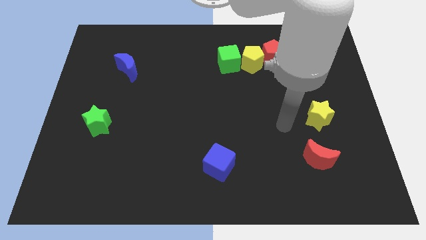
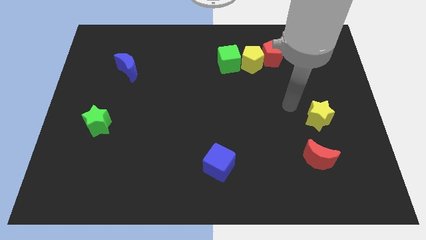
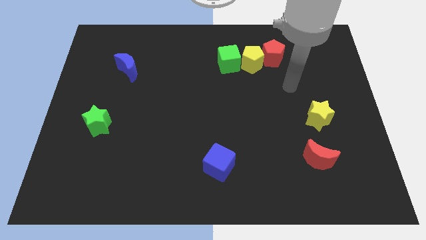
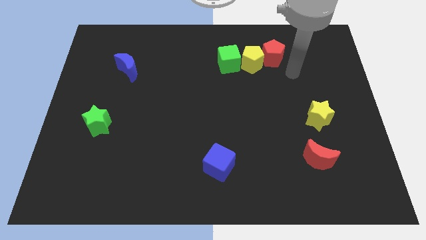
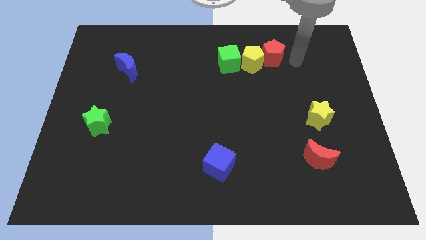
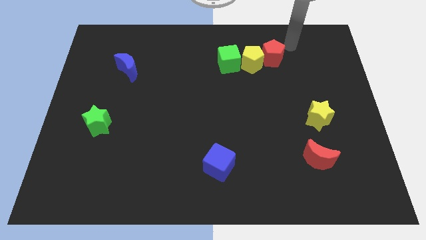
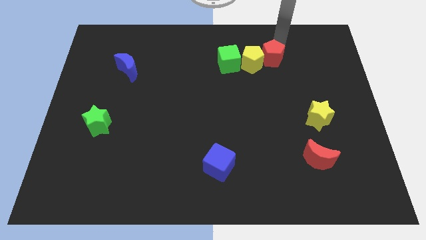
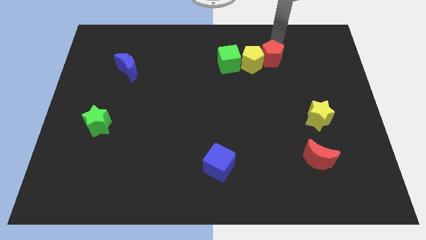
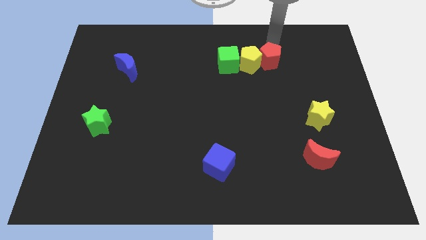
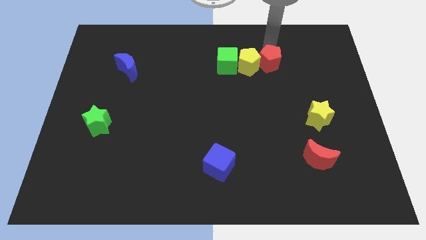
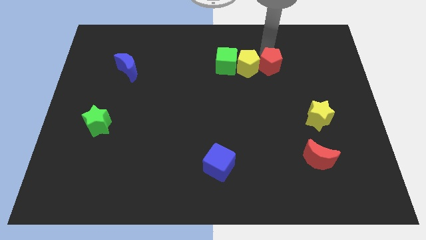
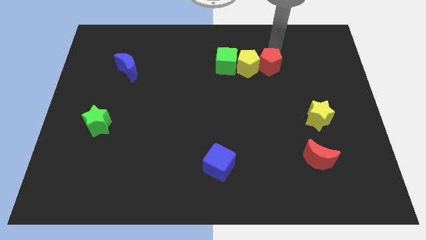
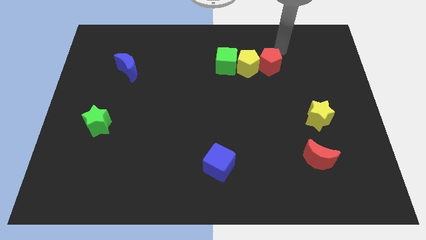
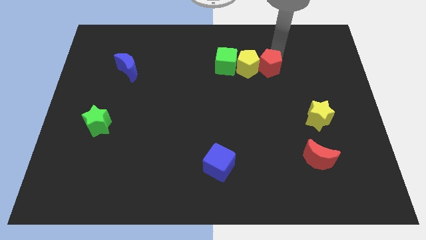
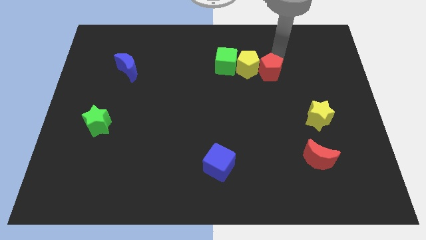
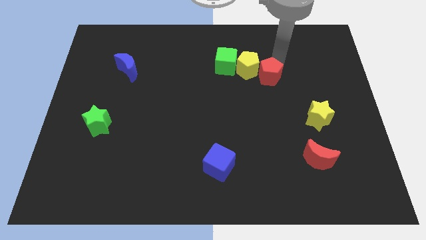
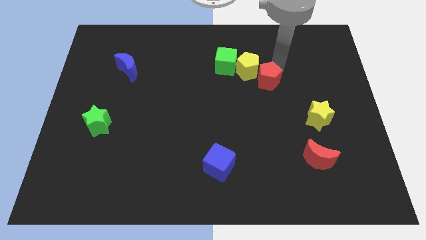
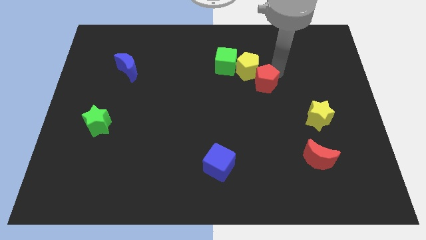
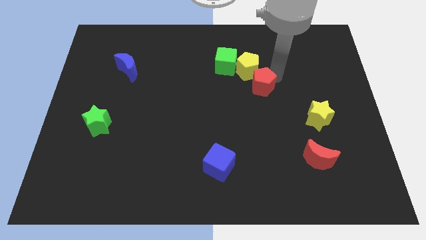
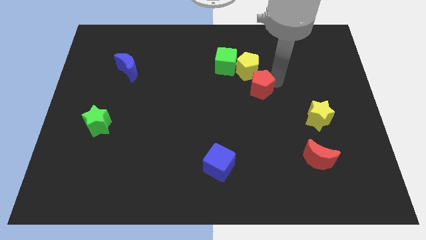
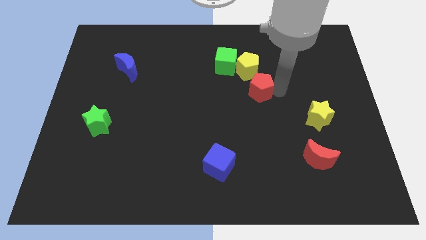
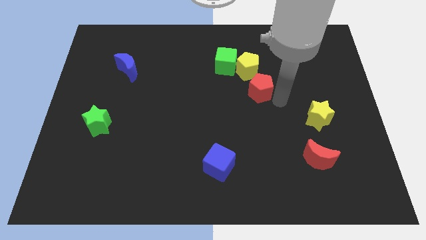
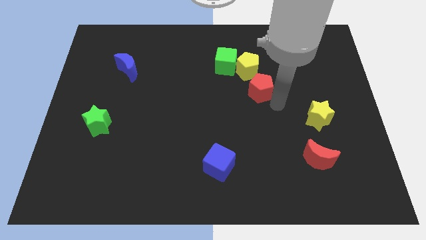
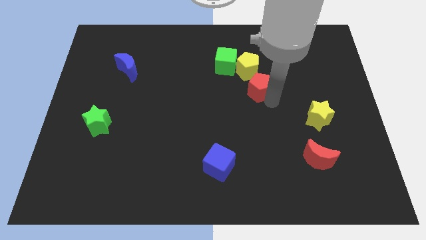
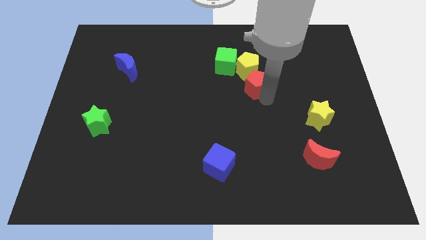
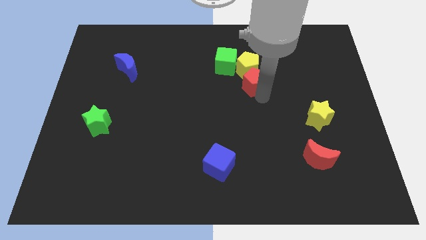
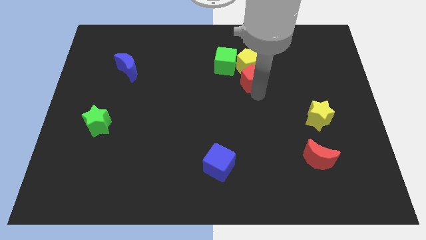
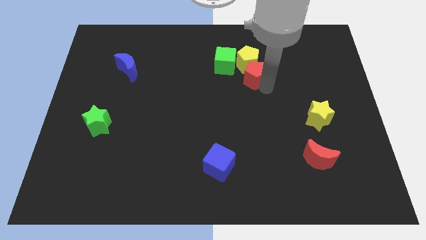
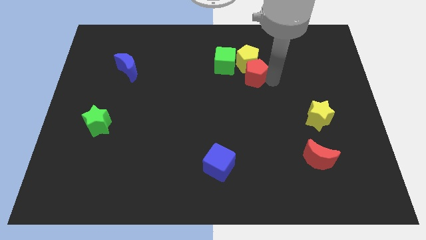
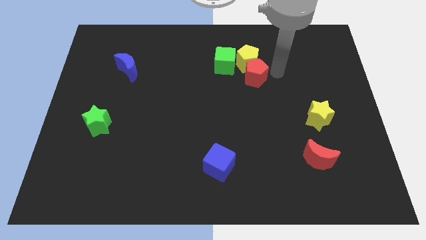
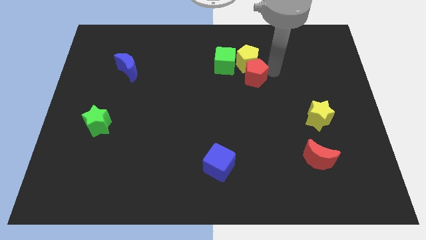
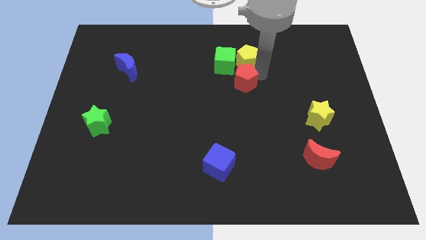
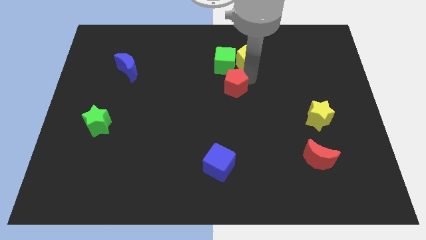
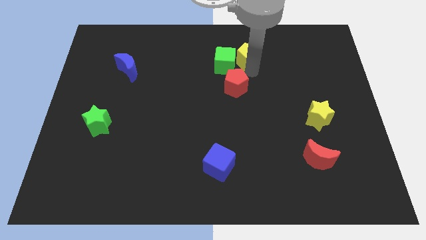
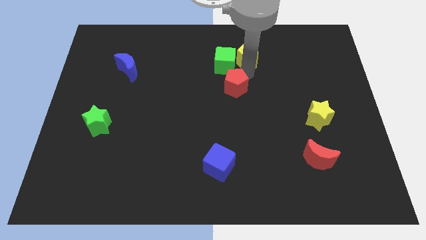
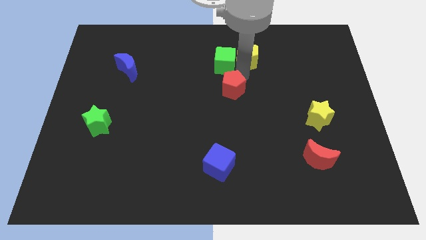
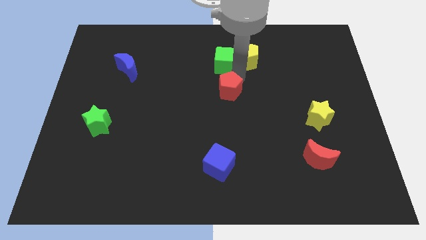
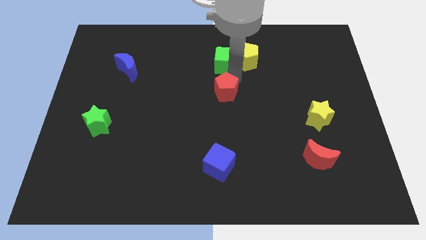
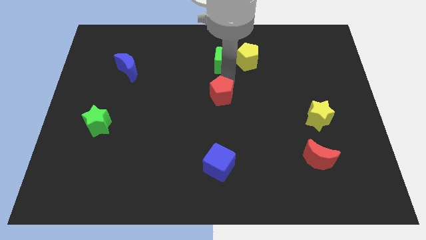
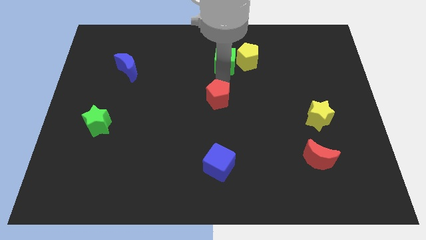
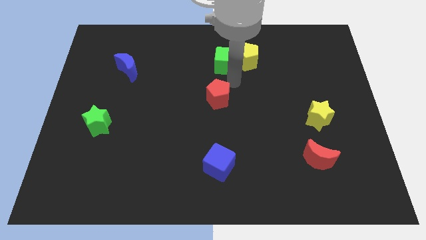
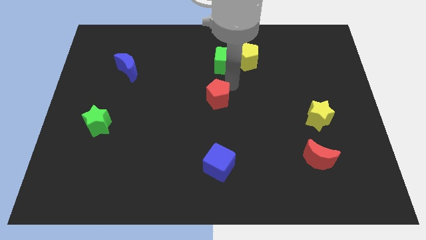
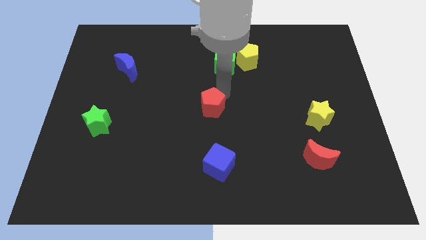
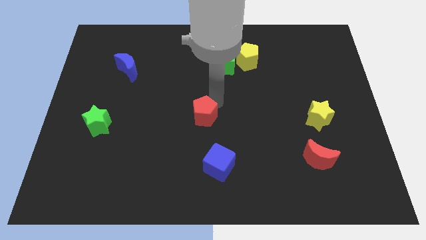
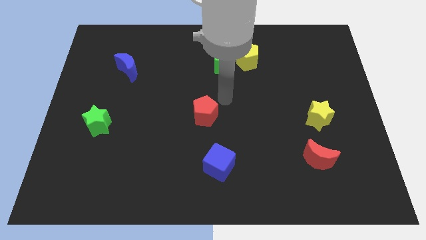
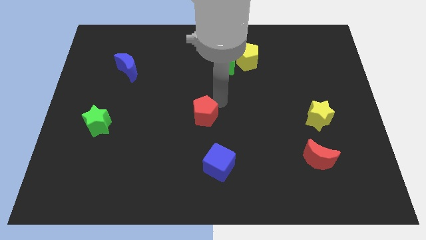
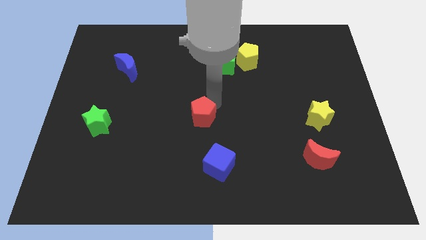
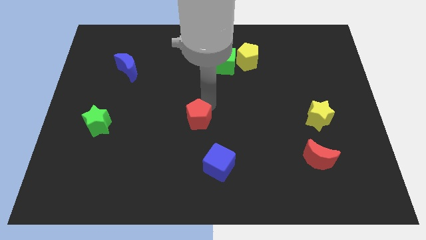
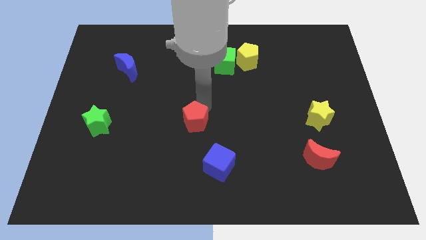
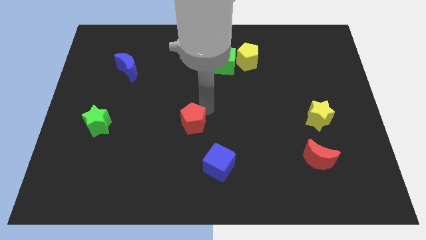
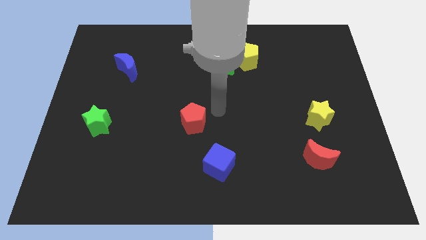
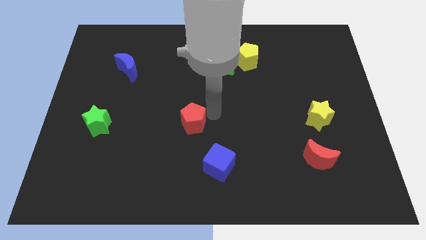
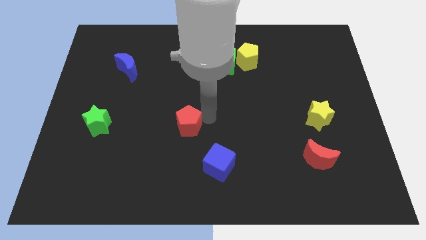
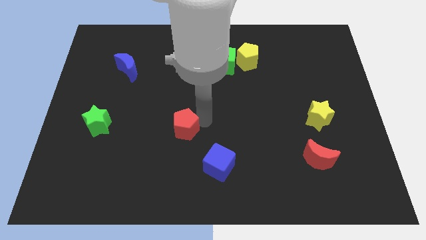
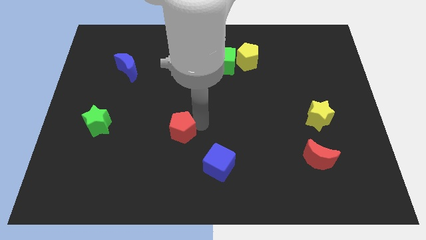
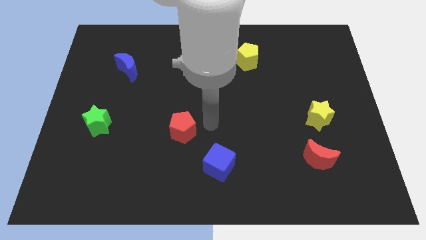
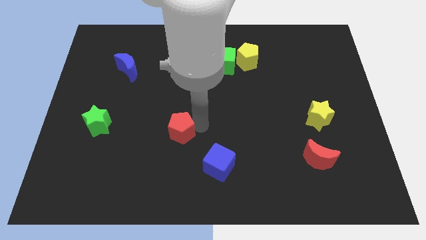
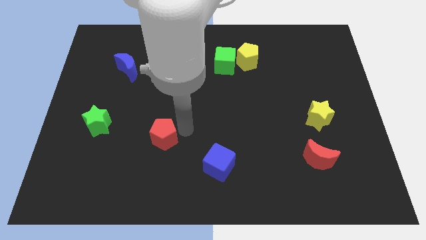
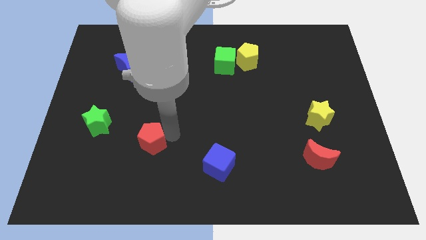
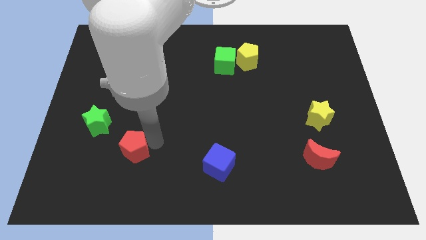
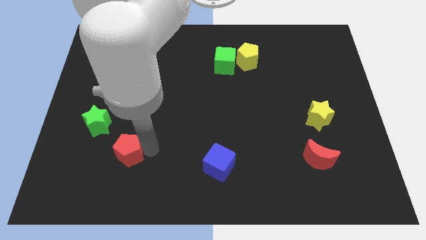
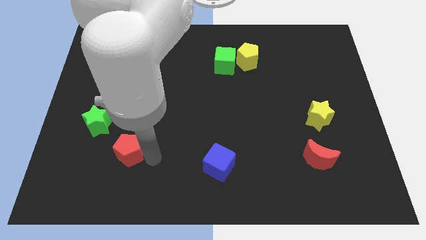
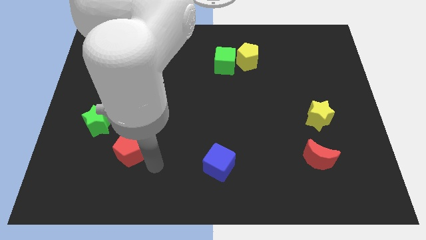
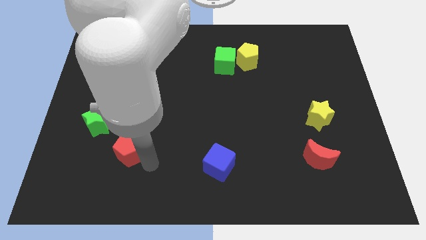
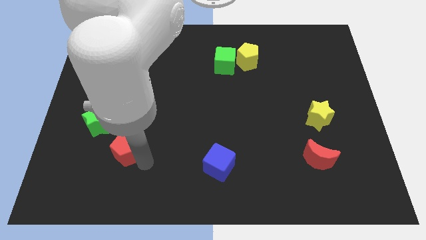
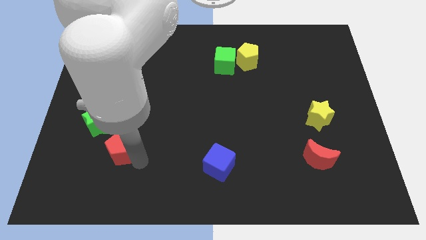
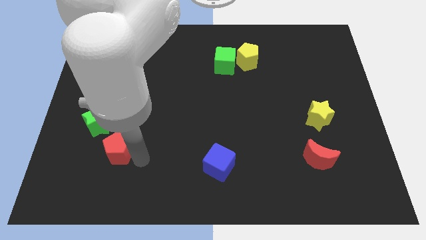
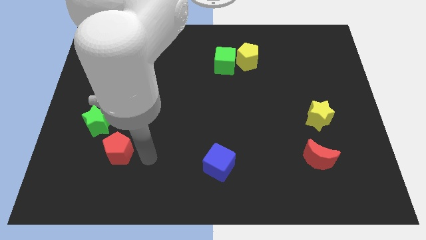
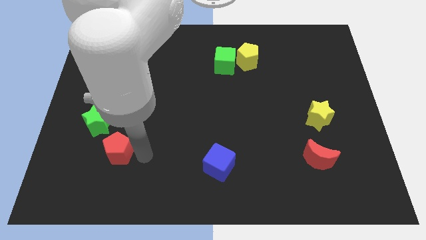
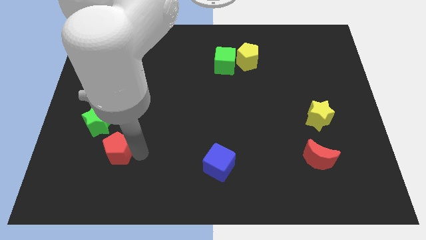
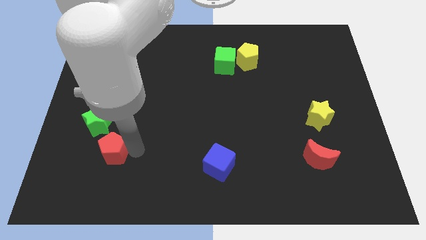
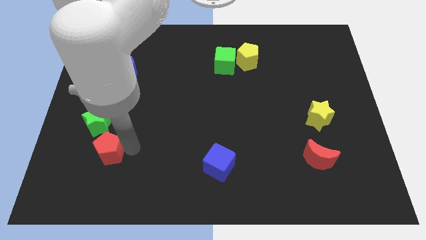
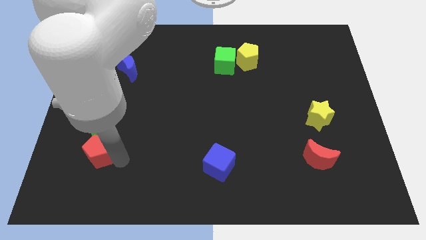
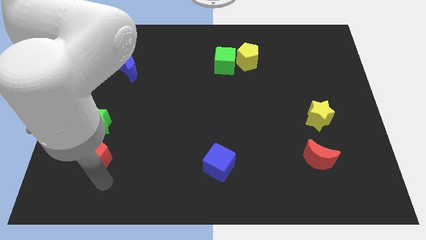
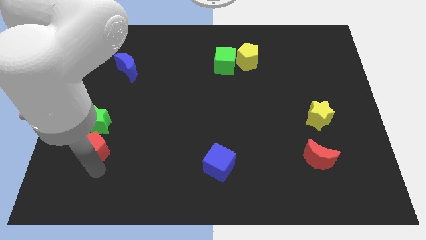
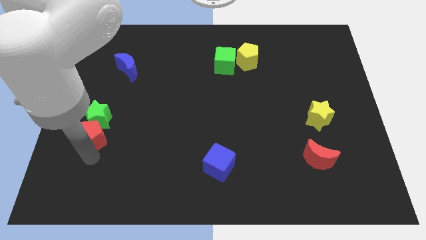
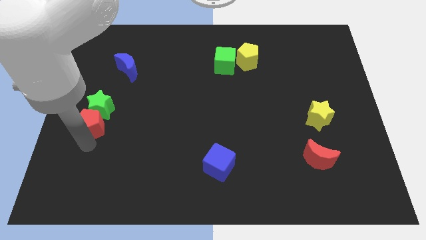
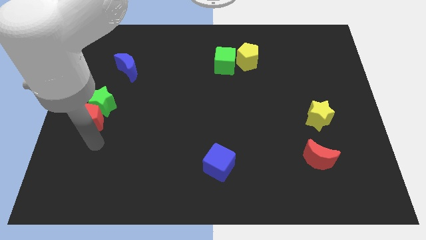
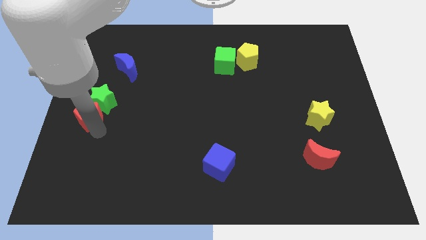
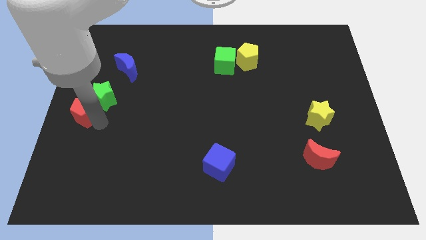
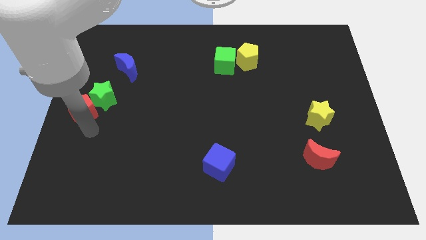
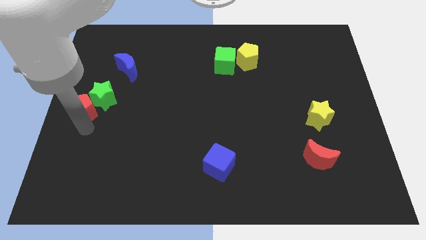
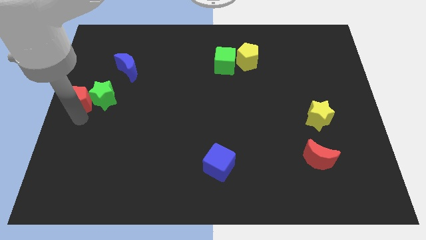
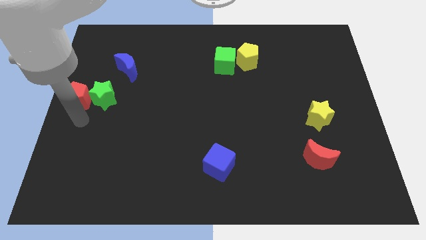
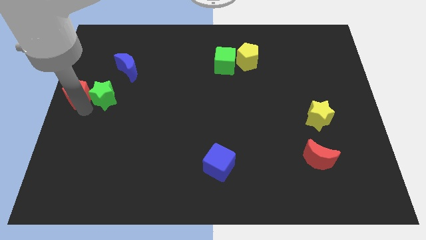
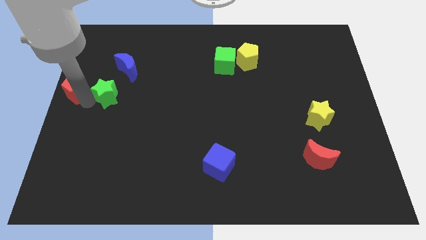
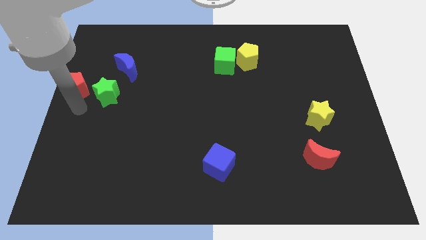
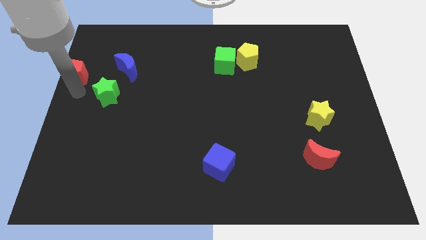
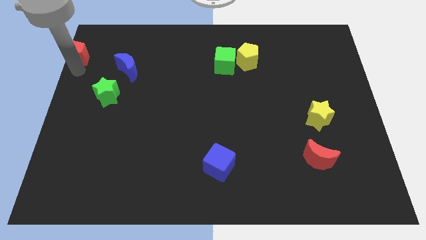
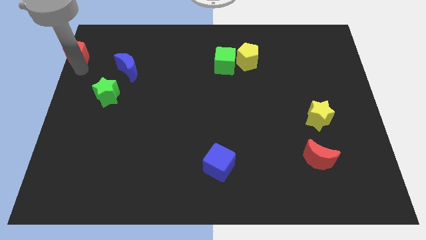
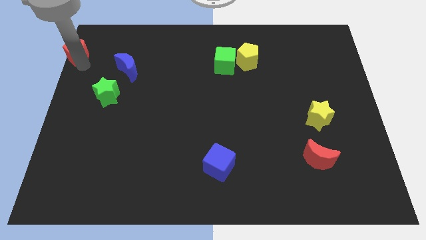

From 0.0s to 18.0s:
put the red pentagon to the top left
